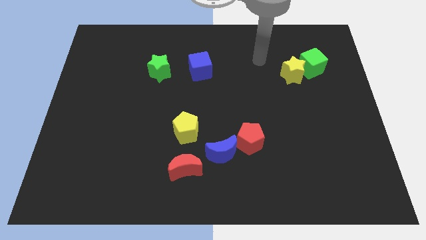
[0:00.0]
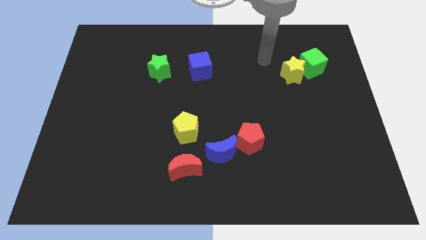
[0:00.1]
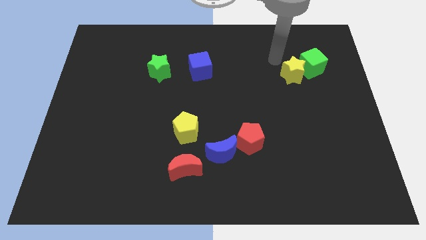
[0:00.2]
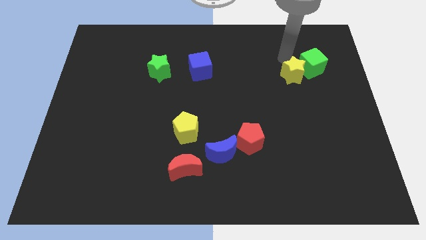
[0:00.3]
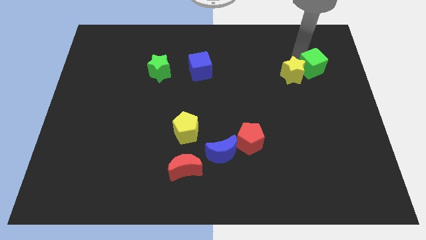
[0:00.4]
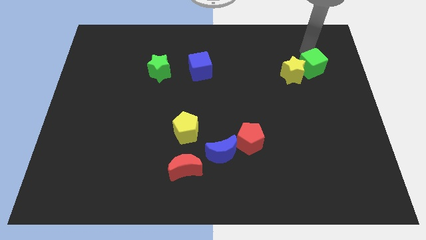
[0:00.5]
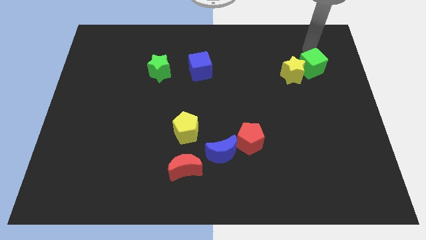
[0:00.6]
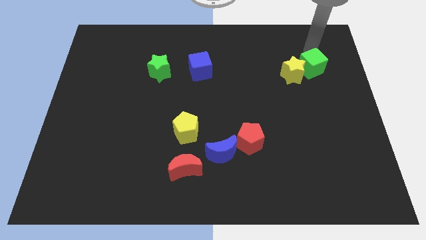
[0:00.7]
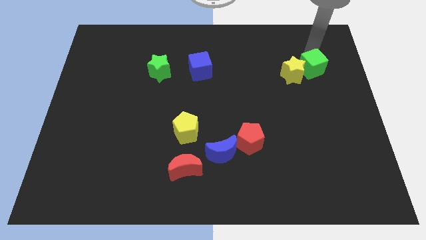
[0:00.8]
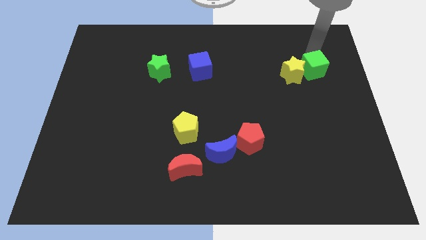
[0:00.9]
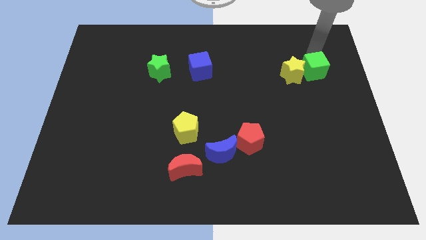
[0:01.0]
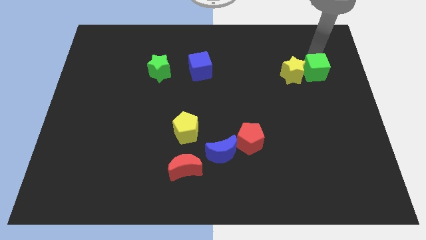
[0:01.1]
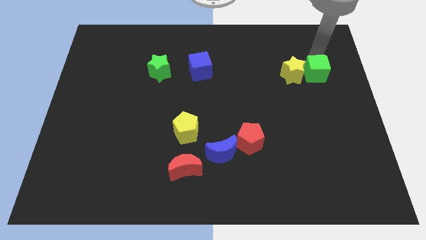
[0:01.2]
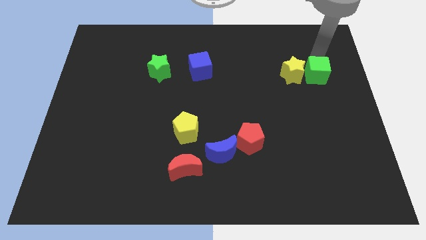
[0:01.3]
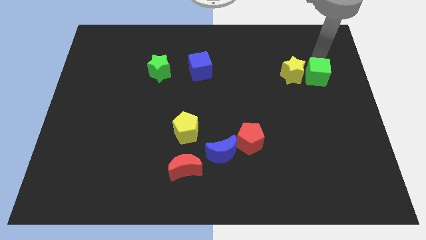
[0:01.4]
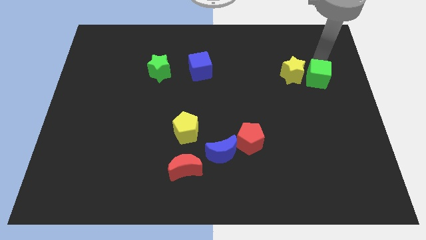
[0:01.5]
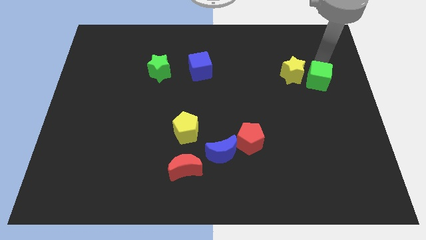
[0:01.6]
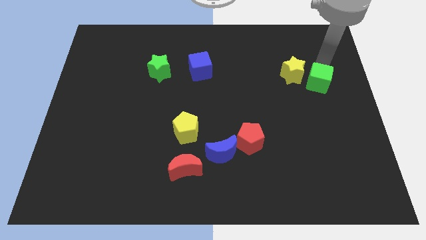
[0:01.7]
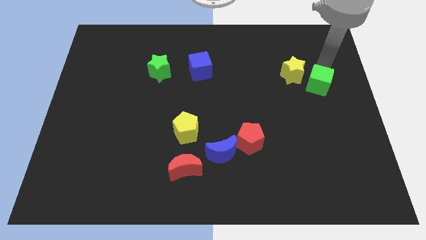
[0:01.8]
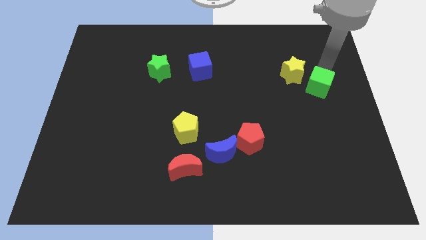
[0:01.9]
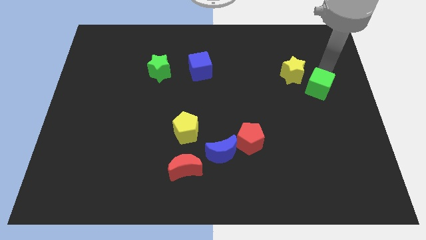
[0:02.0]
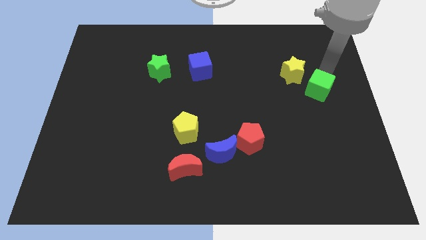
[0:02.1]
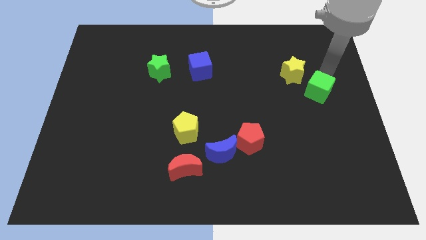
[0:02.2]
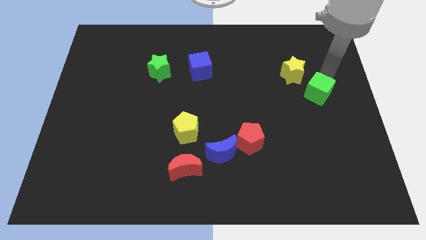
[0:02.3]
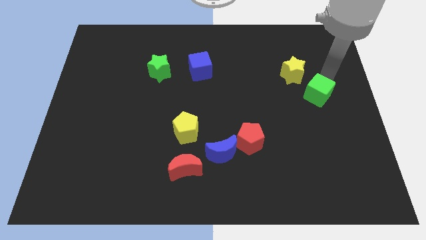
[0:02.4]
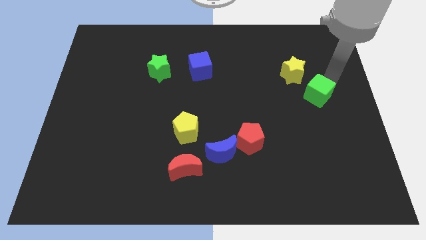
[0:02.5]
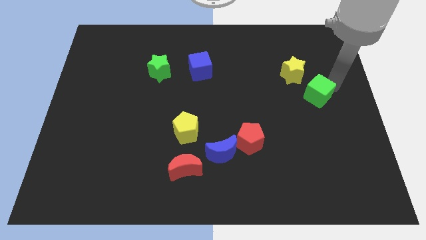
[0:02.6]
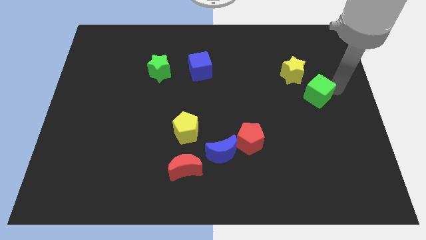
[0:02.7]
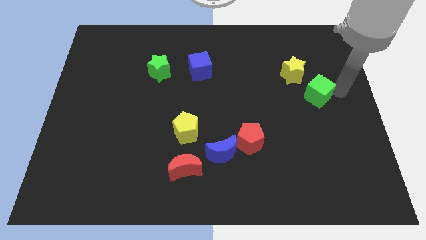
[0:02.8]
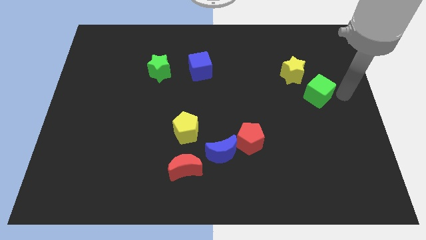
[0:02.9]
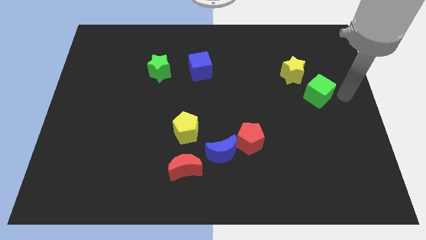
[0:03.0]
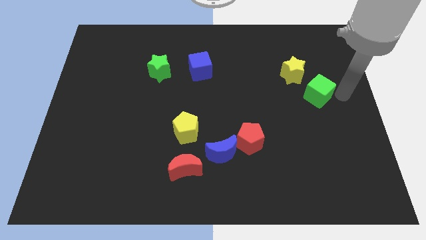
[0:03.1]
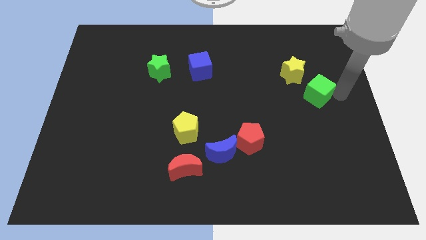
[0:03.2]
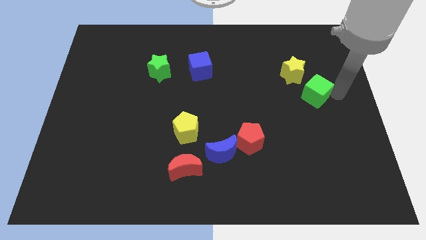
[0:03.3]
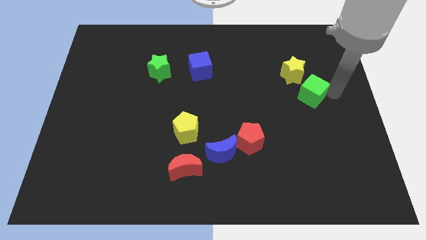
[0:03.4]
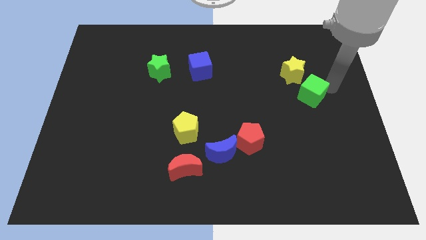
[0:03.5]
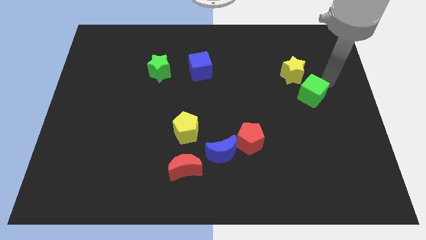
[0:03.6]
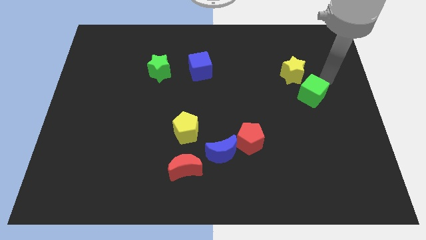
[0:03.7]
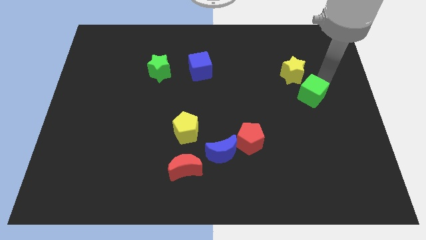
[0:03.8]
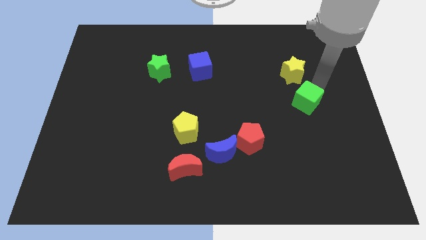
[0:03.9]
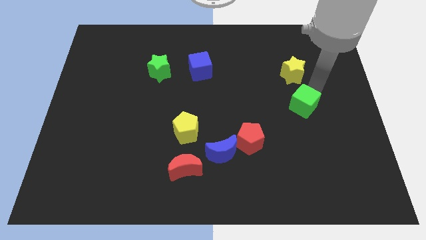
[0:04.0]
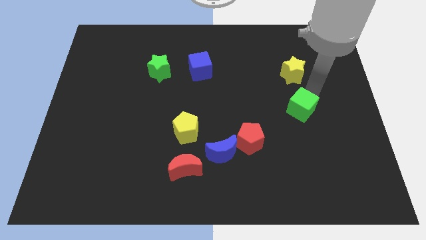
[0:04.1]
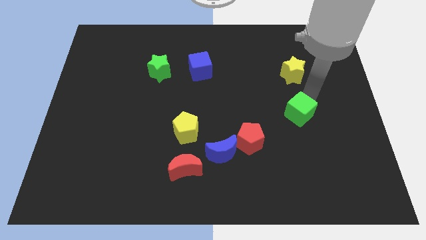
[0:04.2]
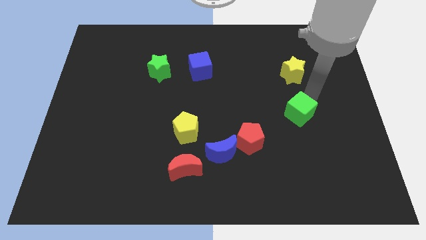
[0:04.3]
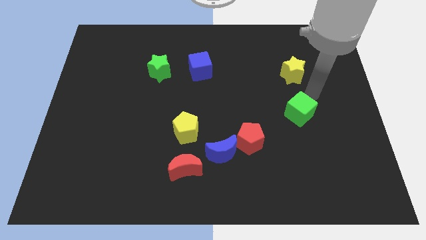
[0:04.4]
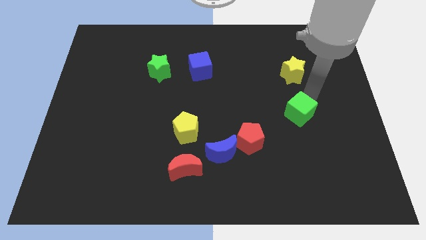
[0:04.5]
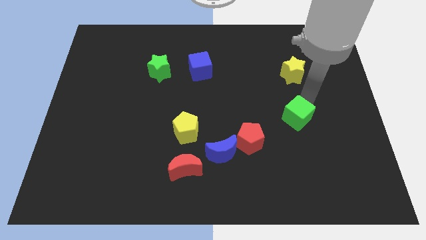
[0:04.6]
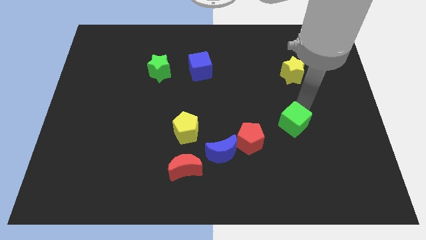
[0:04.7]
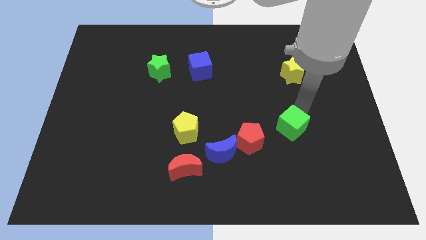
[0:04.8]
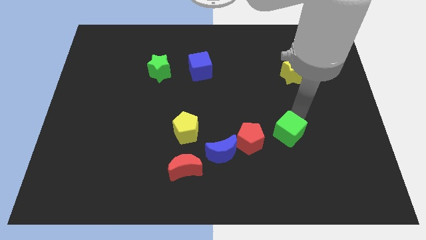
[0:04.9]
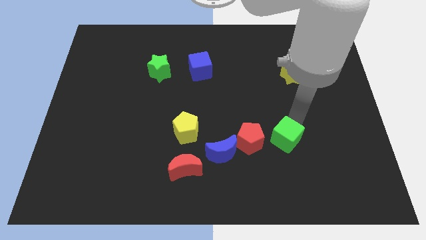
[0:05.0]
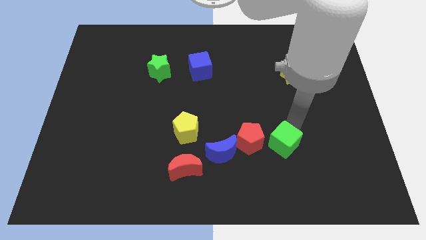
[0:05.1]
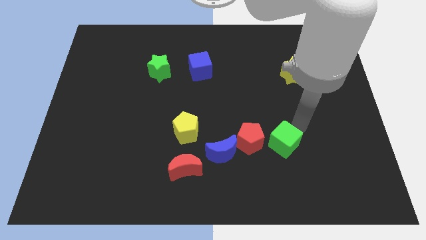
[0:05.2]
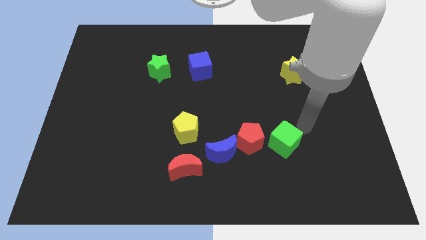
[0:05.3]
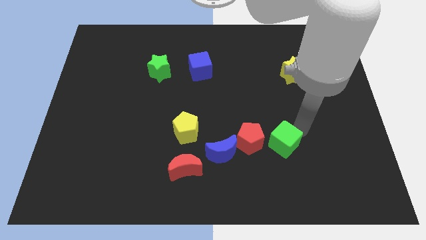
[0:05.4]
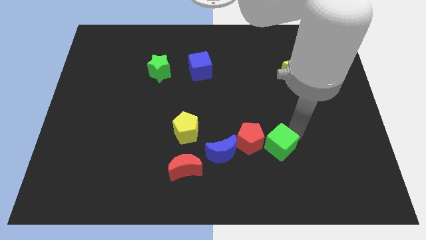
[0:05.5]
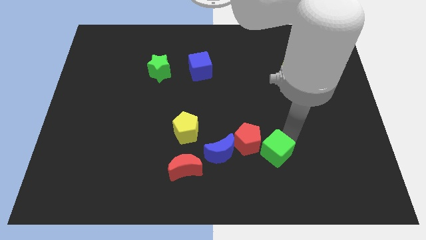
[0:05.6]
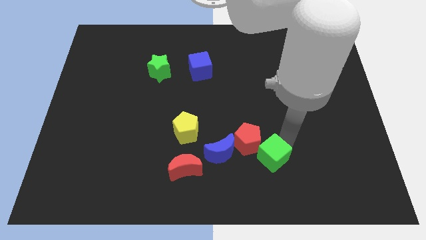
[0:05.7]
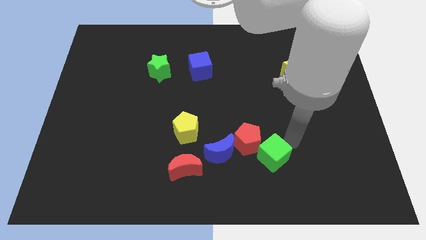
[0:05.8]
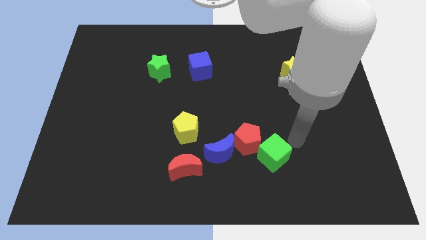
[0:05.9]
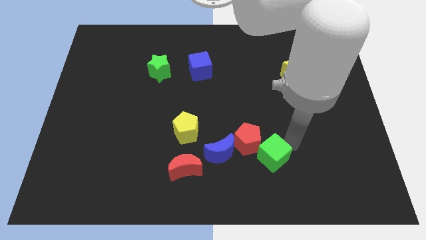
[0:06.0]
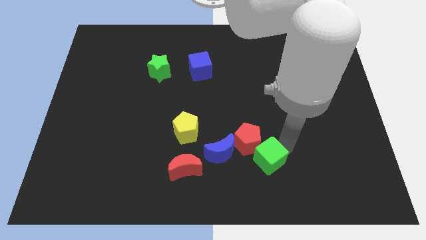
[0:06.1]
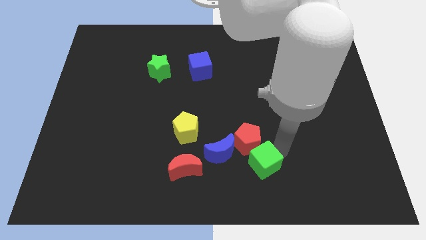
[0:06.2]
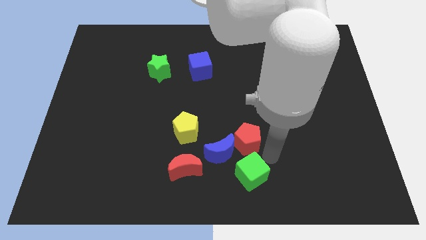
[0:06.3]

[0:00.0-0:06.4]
put the green cube to the bottom
